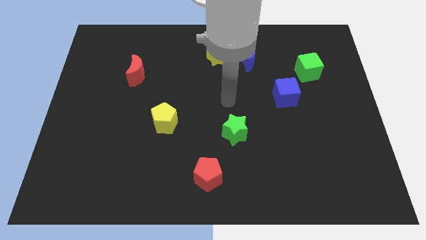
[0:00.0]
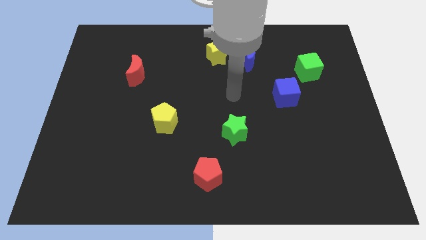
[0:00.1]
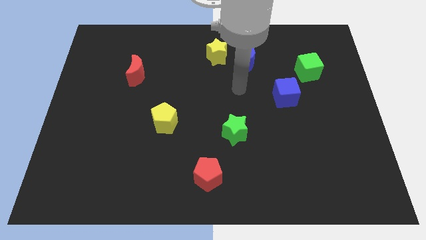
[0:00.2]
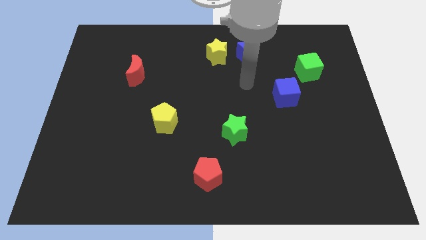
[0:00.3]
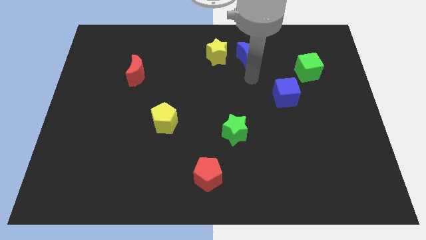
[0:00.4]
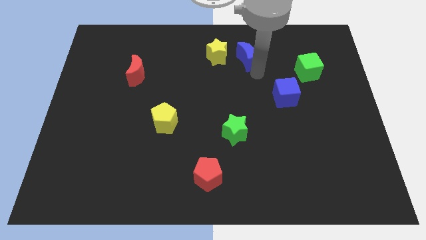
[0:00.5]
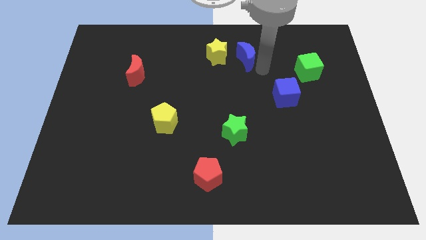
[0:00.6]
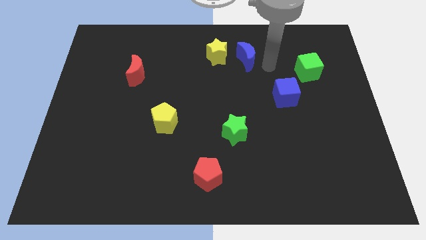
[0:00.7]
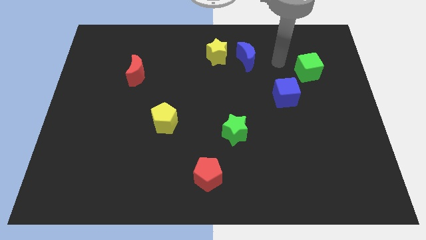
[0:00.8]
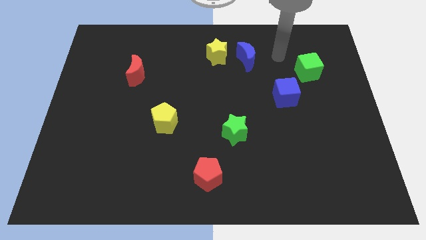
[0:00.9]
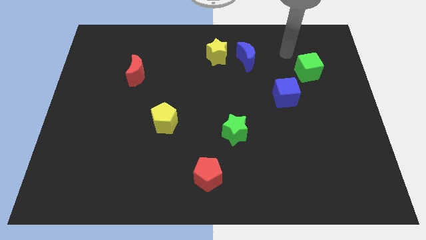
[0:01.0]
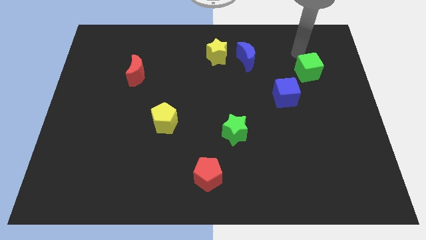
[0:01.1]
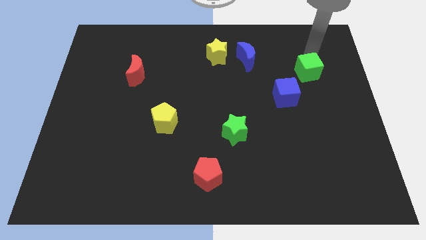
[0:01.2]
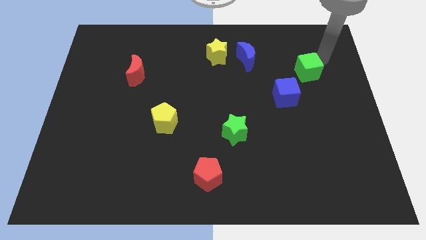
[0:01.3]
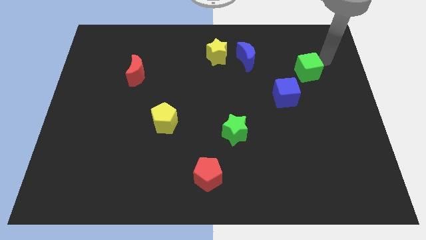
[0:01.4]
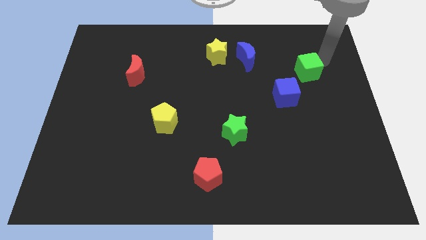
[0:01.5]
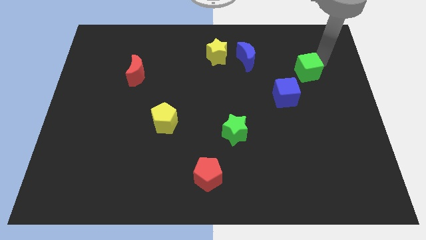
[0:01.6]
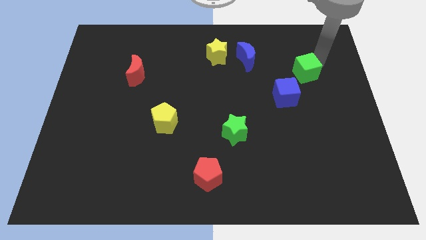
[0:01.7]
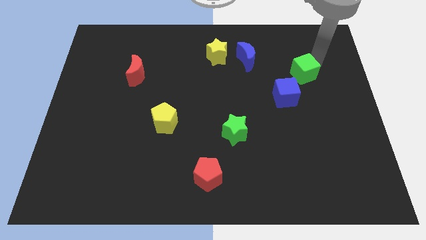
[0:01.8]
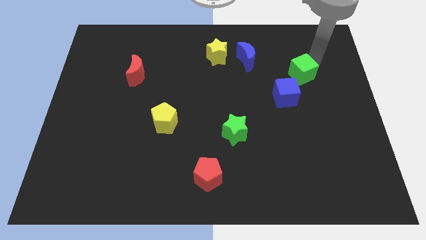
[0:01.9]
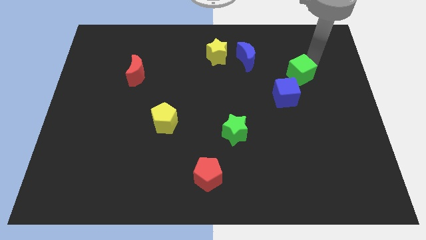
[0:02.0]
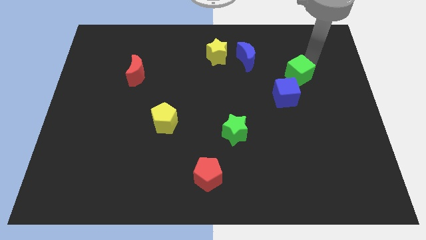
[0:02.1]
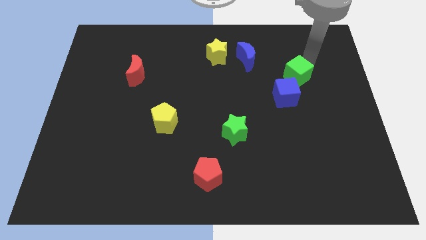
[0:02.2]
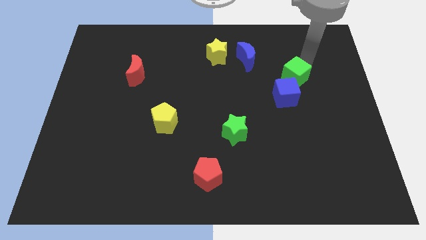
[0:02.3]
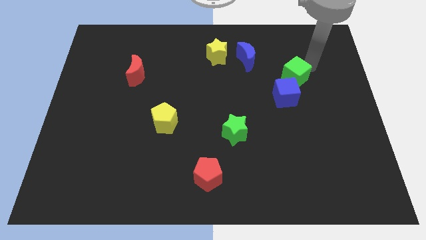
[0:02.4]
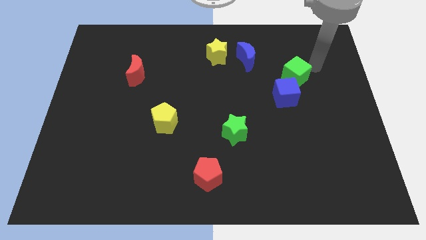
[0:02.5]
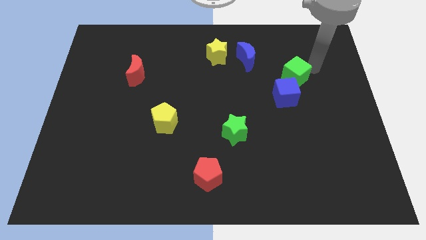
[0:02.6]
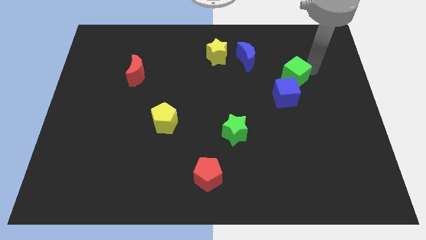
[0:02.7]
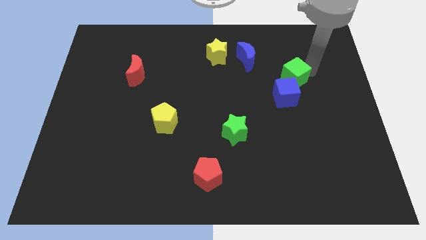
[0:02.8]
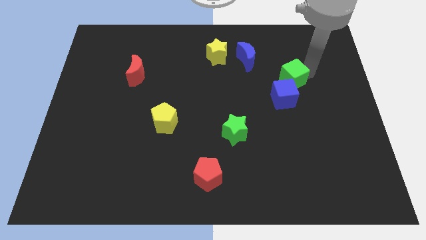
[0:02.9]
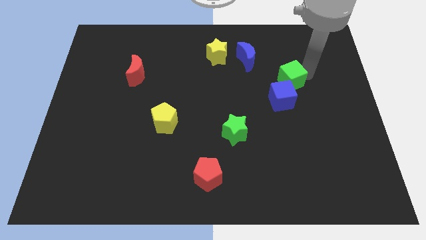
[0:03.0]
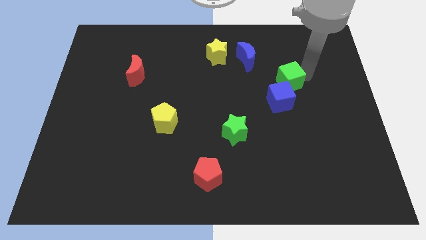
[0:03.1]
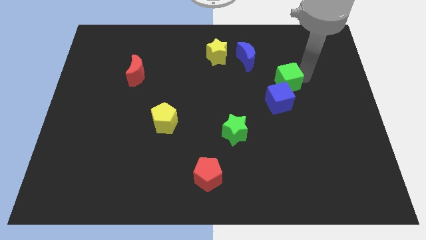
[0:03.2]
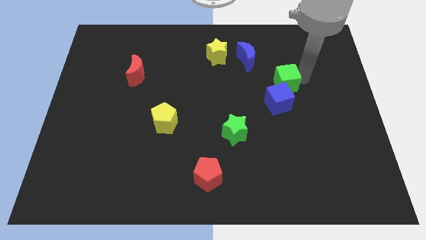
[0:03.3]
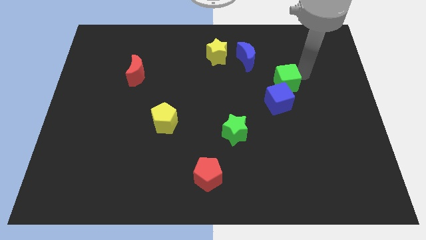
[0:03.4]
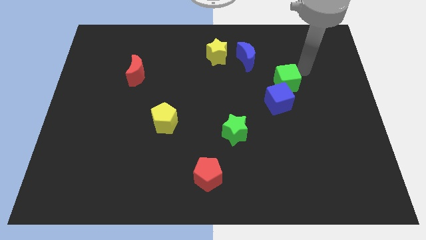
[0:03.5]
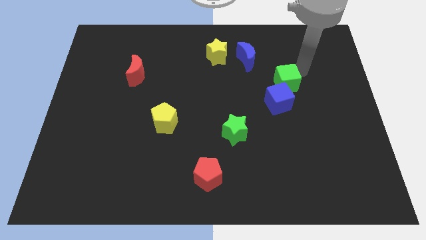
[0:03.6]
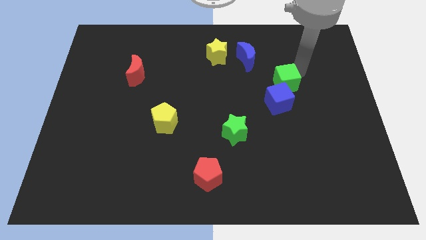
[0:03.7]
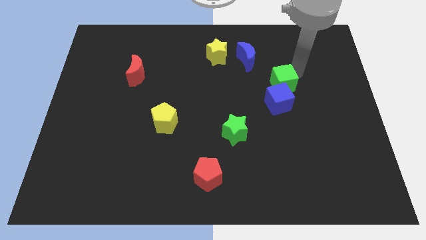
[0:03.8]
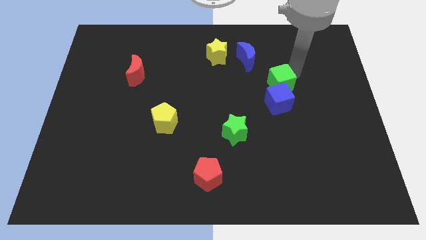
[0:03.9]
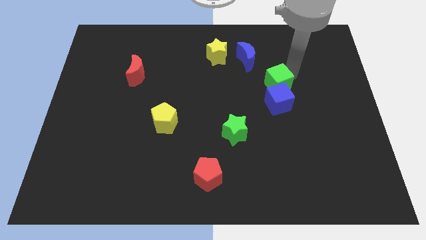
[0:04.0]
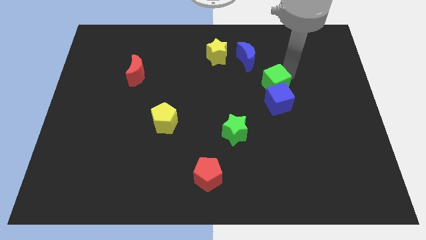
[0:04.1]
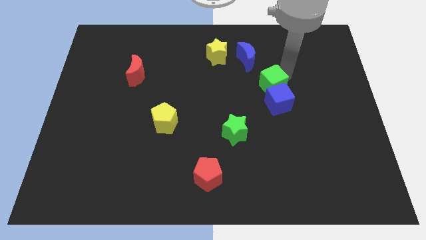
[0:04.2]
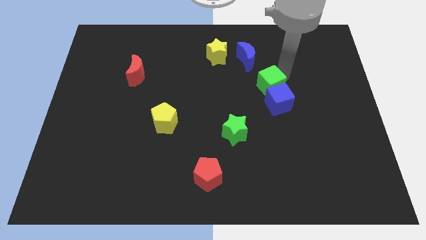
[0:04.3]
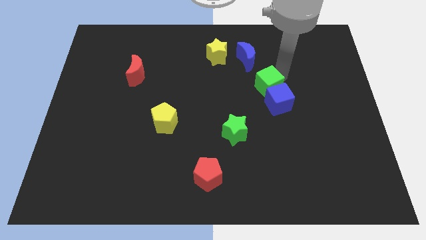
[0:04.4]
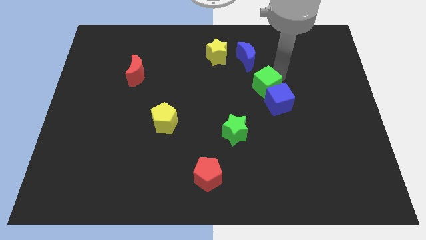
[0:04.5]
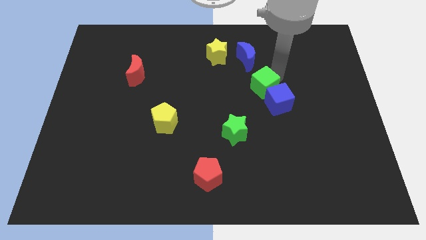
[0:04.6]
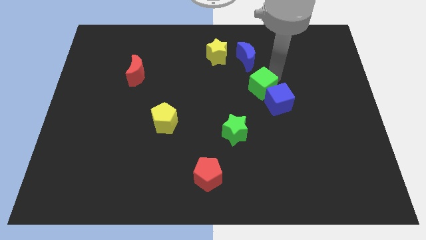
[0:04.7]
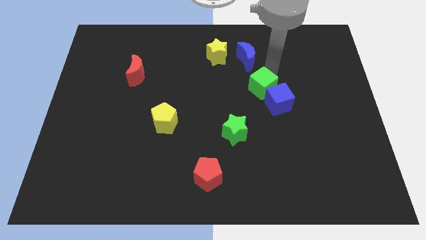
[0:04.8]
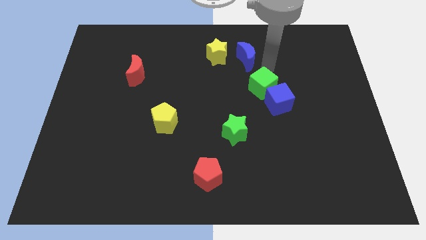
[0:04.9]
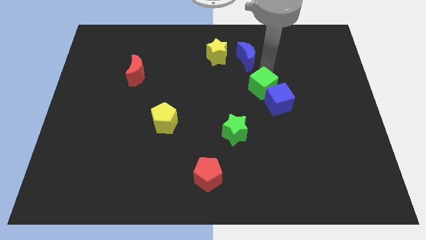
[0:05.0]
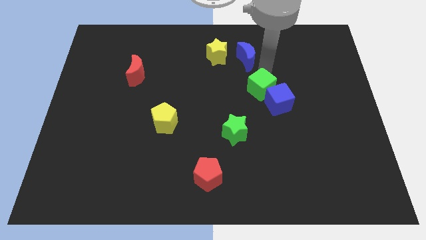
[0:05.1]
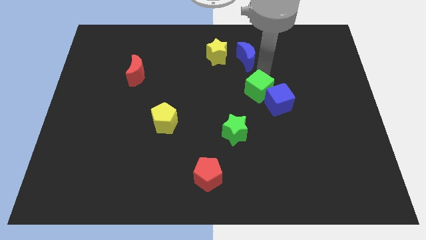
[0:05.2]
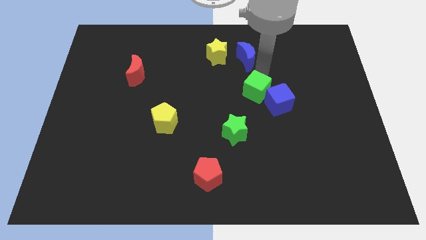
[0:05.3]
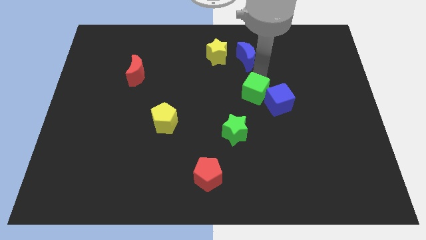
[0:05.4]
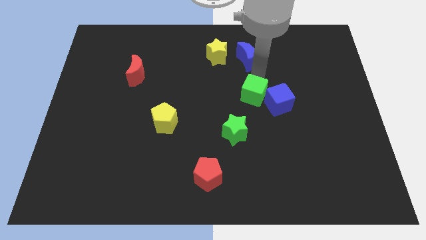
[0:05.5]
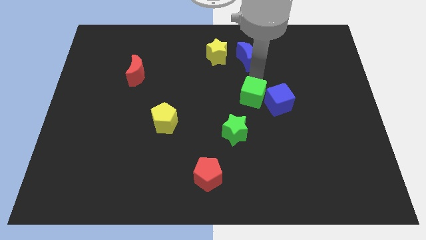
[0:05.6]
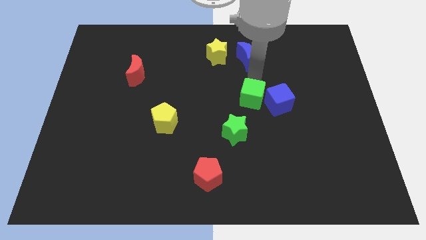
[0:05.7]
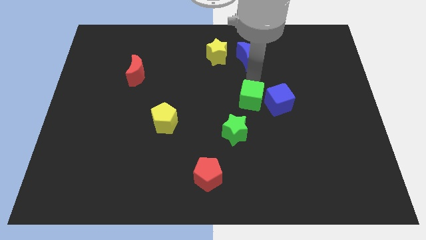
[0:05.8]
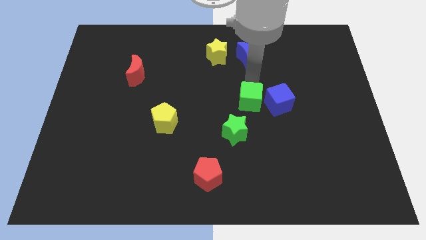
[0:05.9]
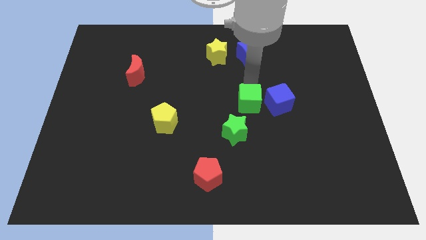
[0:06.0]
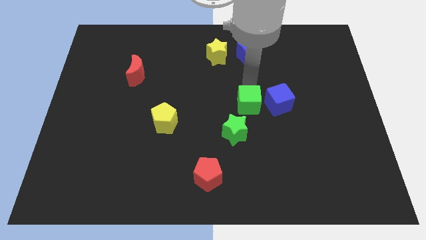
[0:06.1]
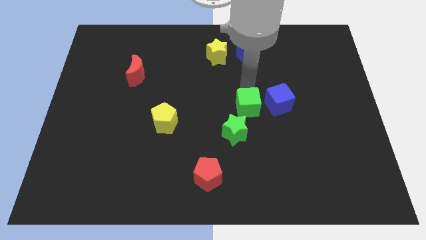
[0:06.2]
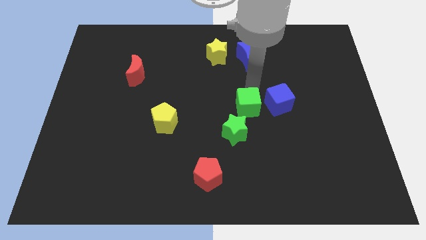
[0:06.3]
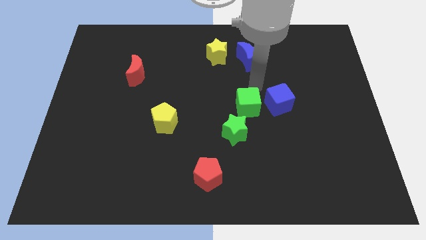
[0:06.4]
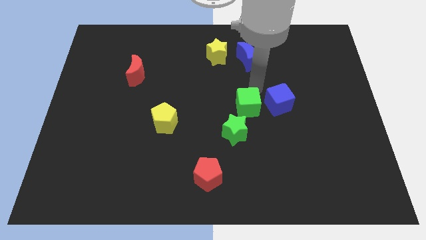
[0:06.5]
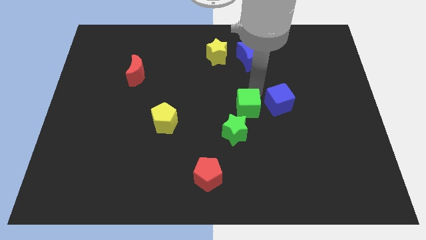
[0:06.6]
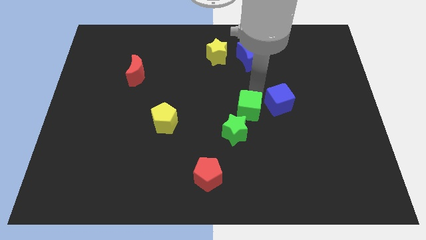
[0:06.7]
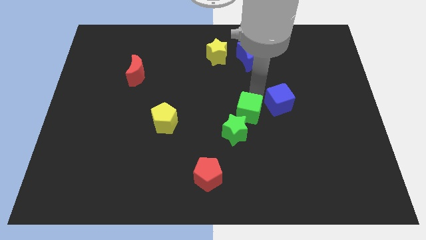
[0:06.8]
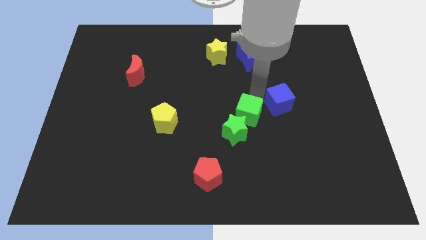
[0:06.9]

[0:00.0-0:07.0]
put the green cube to the green star
